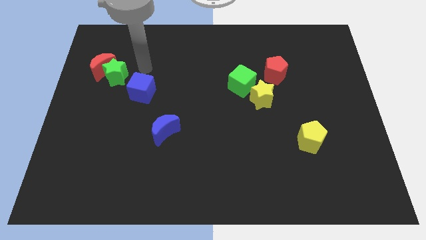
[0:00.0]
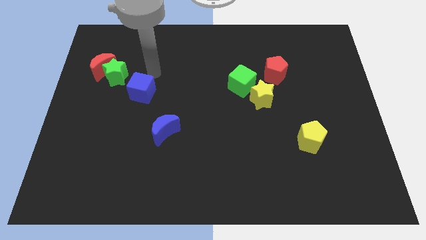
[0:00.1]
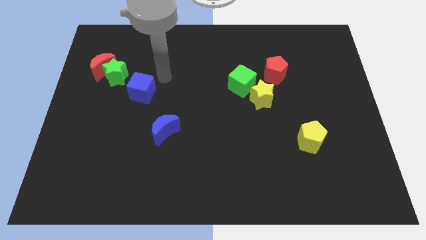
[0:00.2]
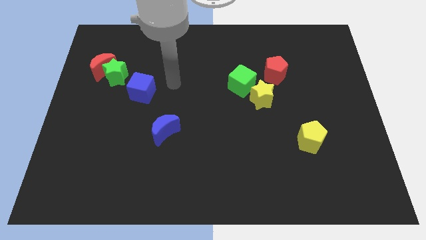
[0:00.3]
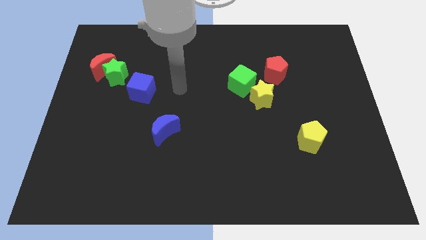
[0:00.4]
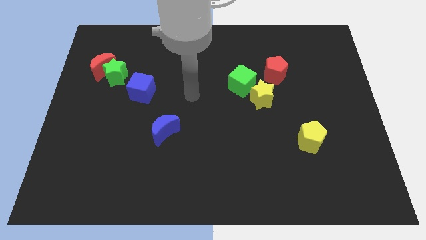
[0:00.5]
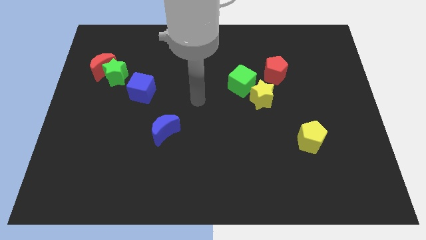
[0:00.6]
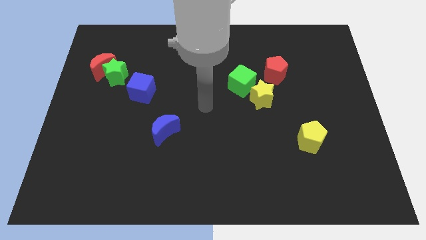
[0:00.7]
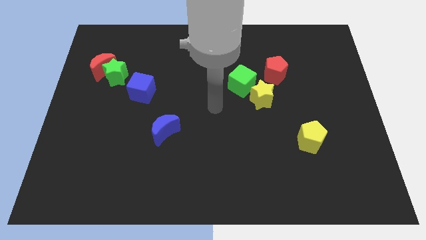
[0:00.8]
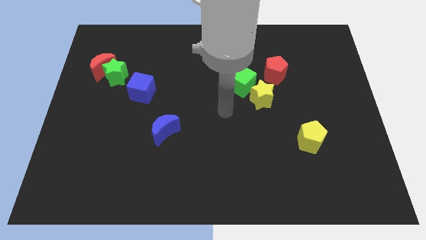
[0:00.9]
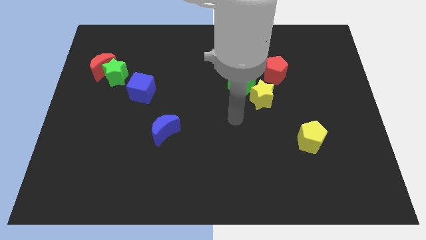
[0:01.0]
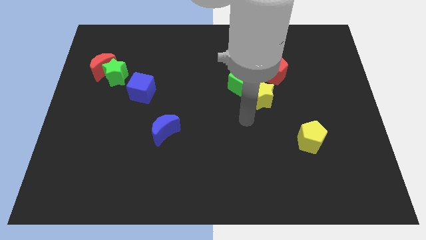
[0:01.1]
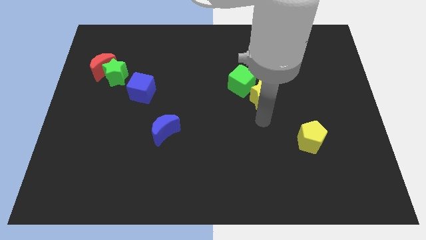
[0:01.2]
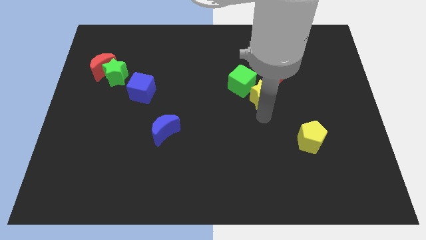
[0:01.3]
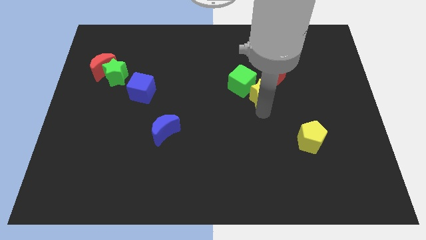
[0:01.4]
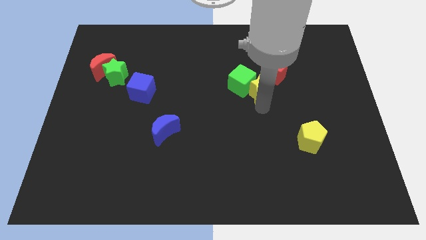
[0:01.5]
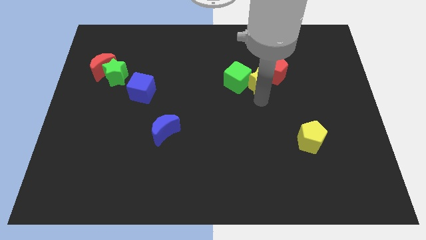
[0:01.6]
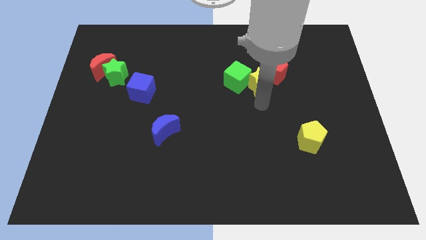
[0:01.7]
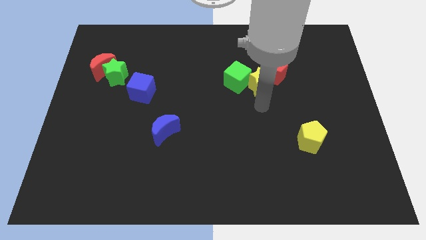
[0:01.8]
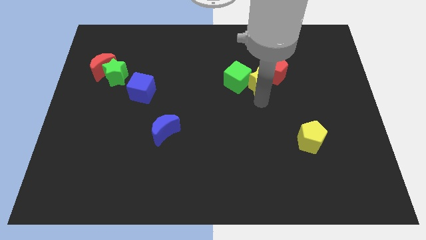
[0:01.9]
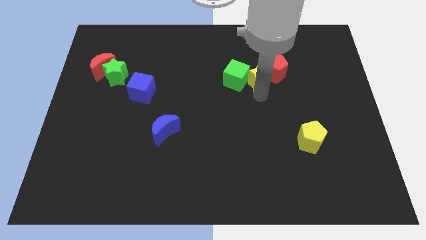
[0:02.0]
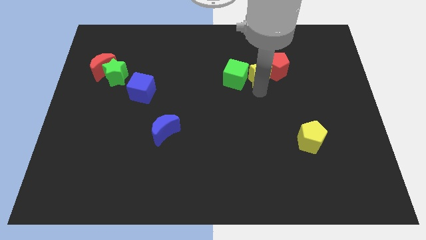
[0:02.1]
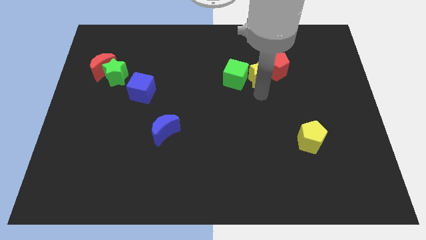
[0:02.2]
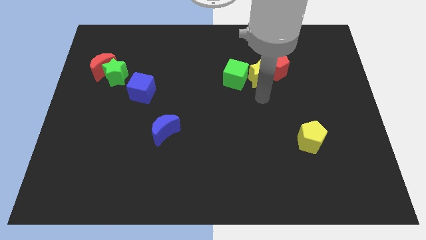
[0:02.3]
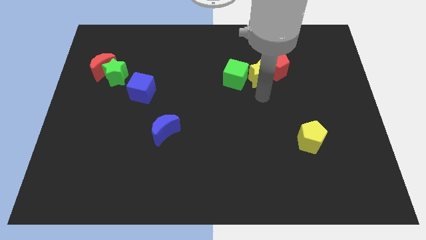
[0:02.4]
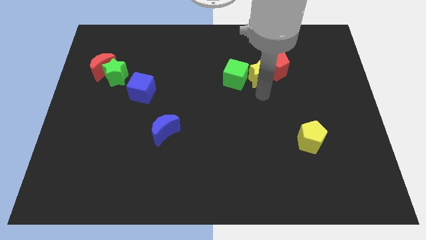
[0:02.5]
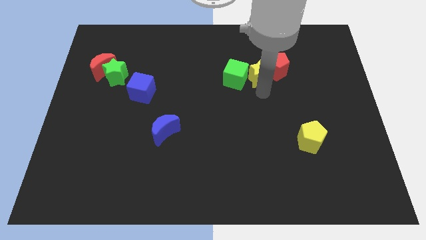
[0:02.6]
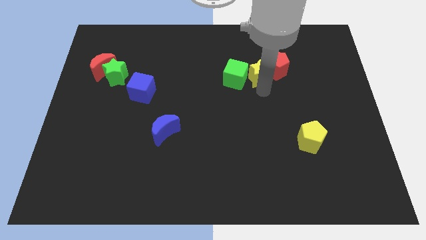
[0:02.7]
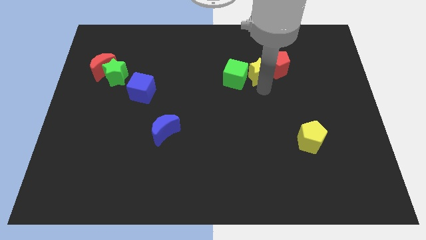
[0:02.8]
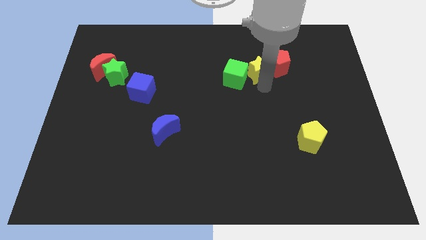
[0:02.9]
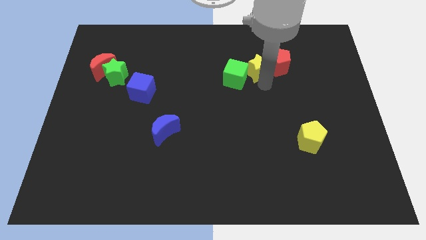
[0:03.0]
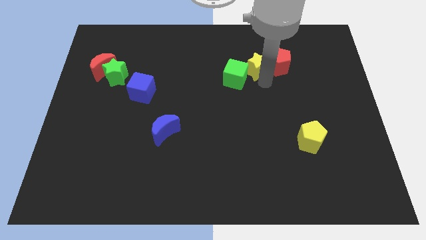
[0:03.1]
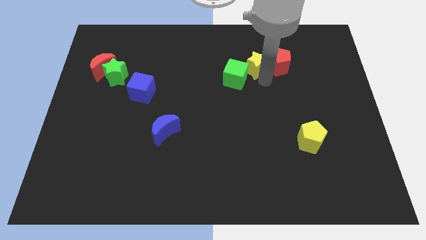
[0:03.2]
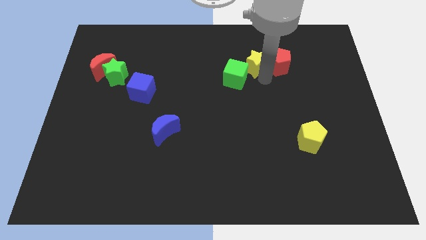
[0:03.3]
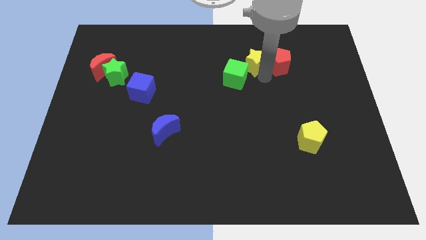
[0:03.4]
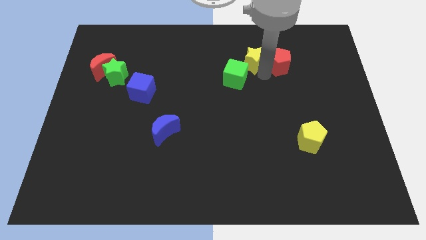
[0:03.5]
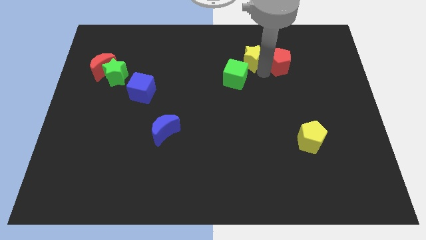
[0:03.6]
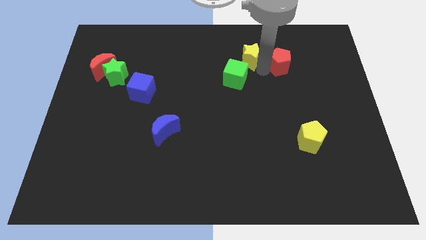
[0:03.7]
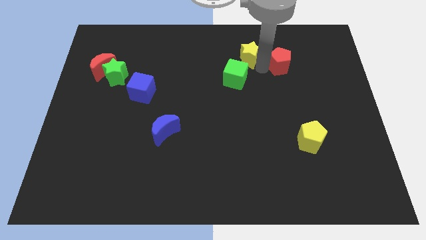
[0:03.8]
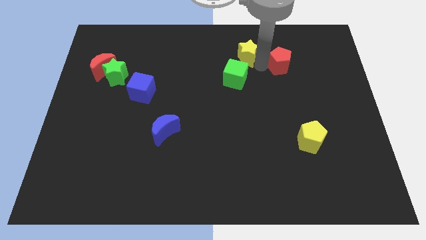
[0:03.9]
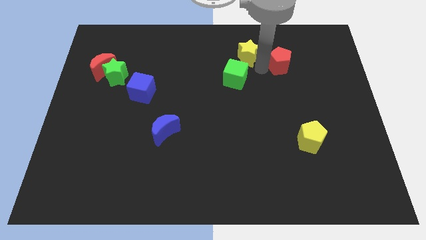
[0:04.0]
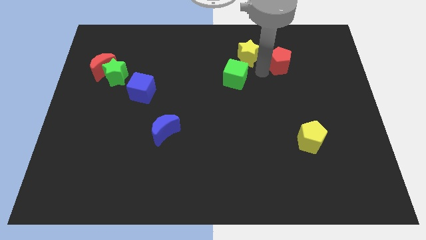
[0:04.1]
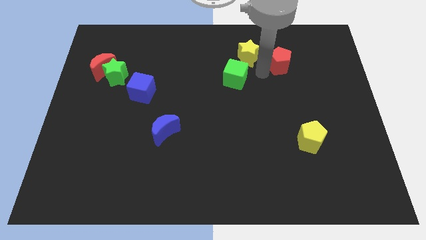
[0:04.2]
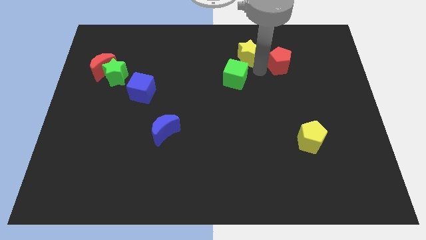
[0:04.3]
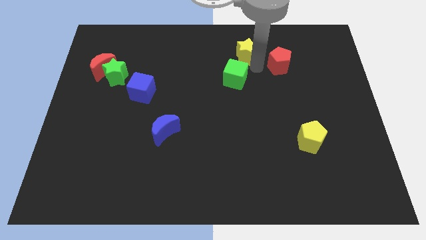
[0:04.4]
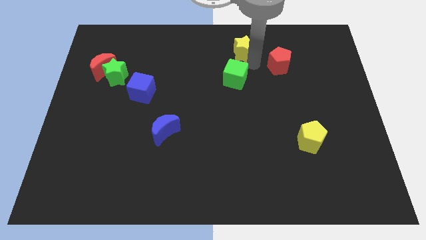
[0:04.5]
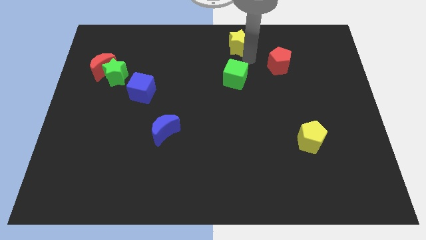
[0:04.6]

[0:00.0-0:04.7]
move the yellow star to the top side

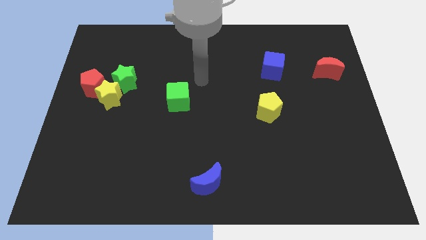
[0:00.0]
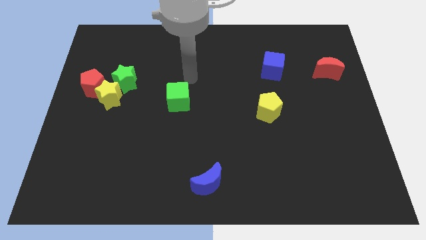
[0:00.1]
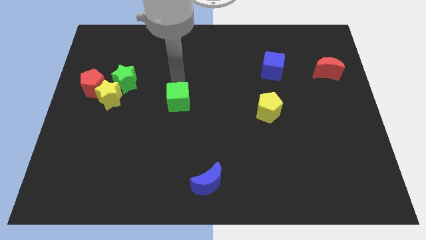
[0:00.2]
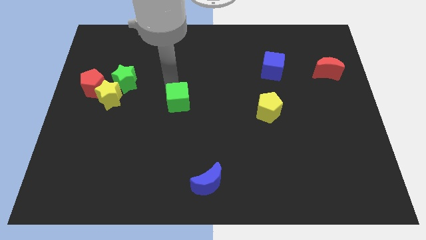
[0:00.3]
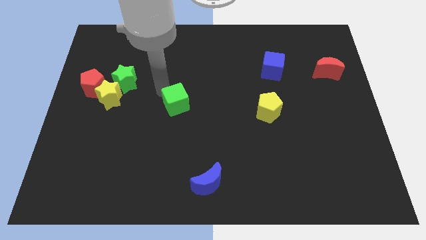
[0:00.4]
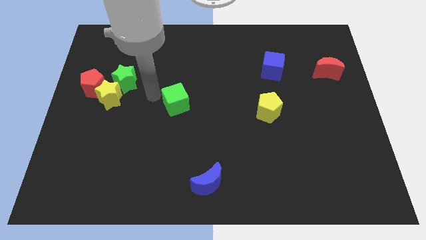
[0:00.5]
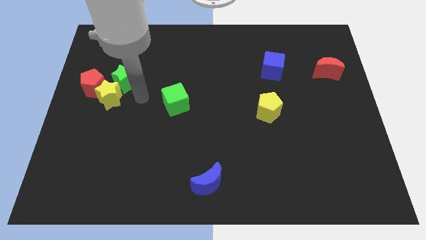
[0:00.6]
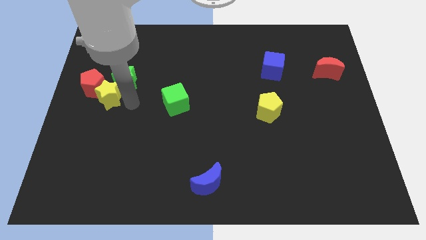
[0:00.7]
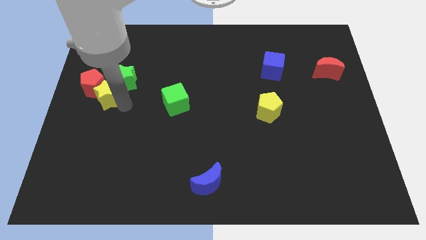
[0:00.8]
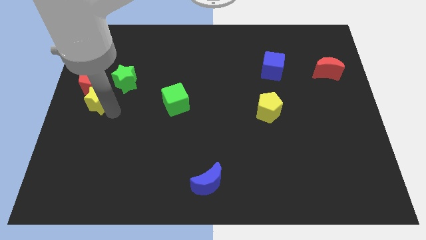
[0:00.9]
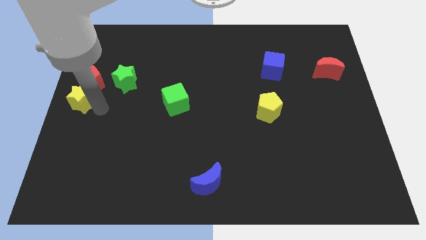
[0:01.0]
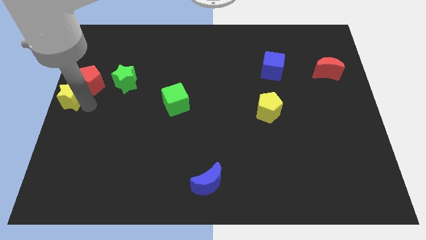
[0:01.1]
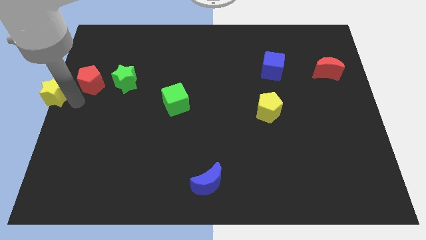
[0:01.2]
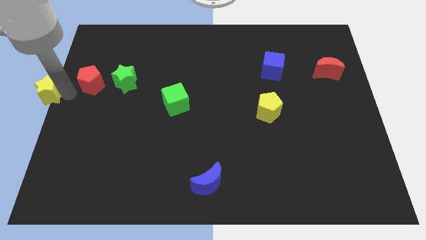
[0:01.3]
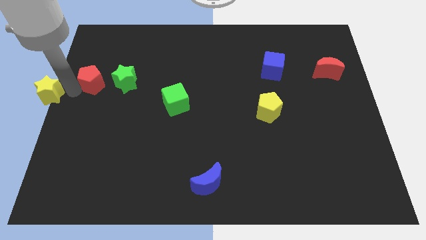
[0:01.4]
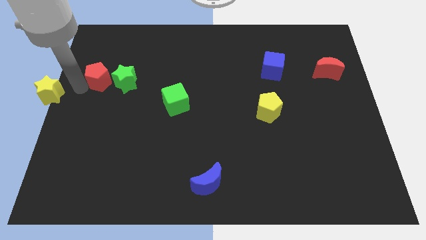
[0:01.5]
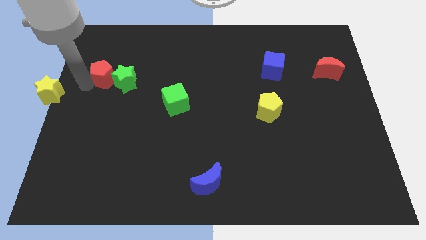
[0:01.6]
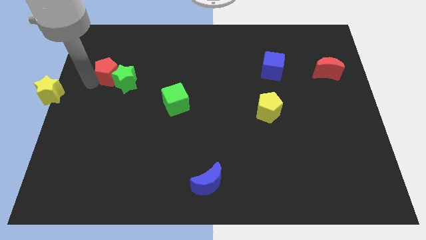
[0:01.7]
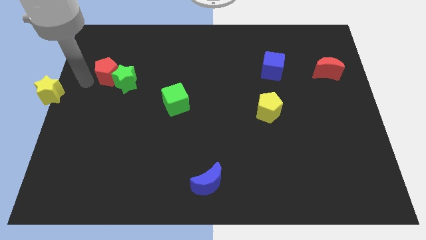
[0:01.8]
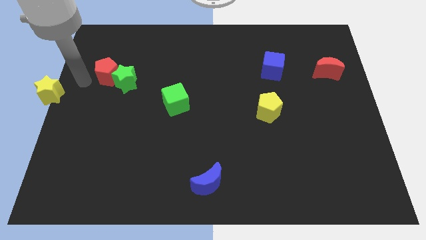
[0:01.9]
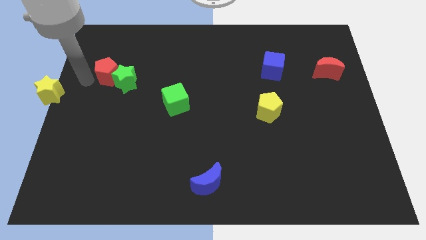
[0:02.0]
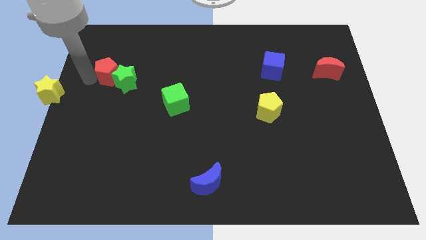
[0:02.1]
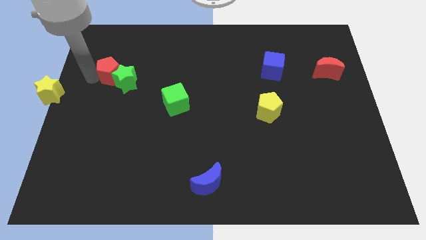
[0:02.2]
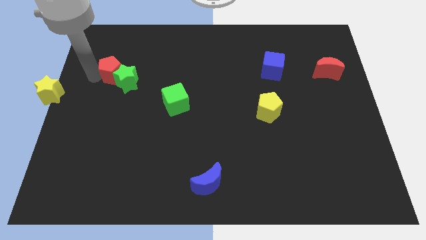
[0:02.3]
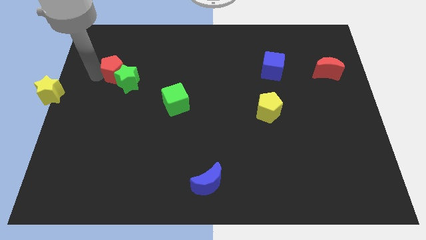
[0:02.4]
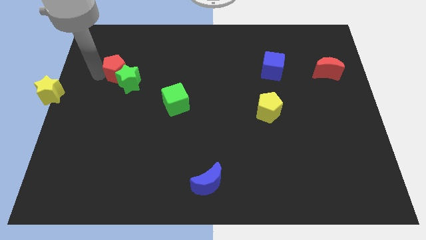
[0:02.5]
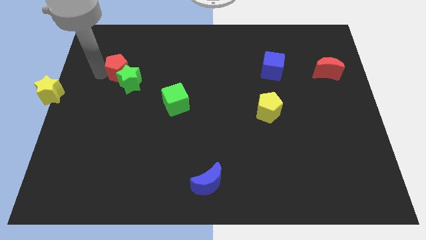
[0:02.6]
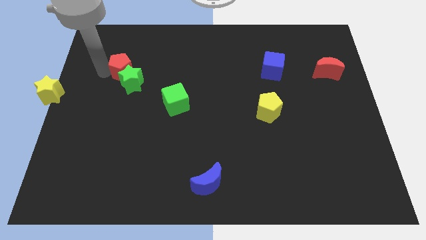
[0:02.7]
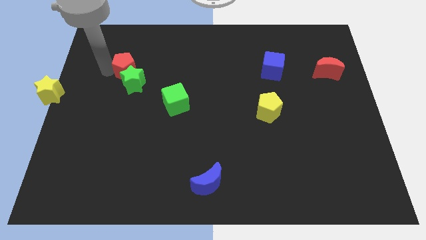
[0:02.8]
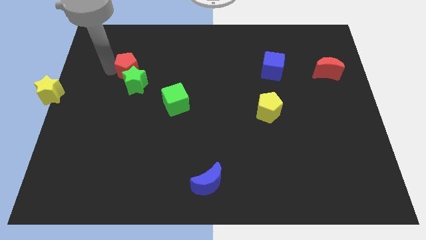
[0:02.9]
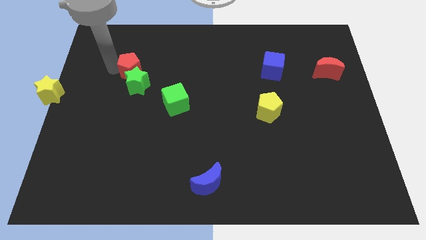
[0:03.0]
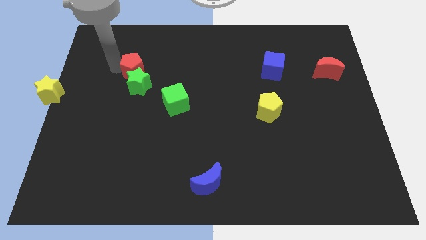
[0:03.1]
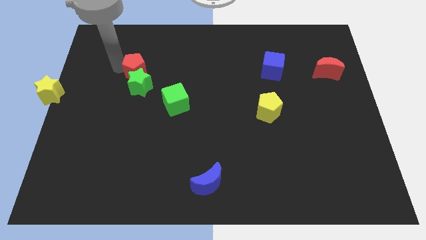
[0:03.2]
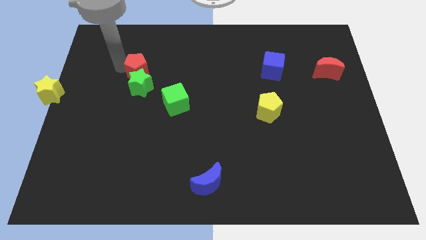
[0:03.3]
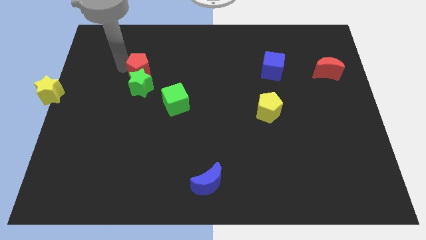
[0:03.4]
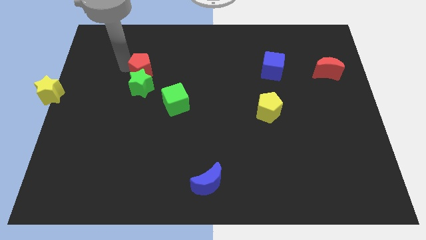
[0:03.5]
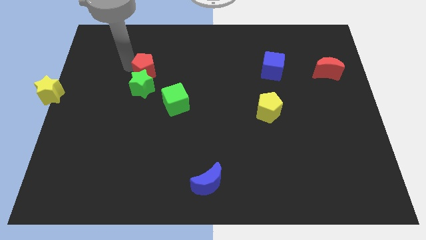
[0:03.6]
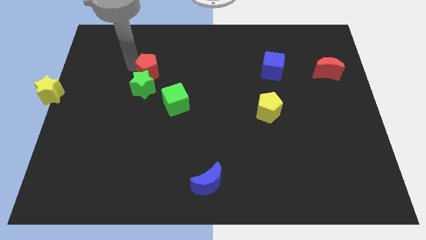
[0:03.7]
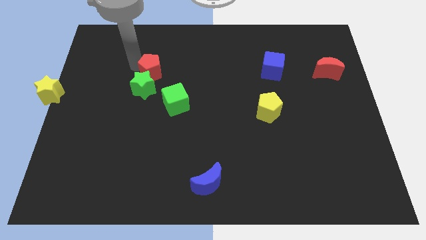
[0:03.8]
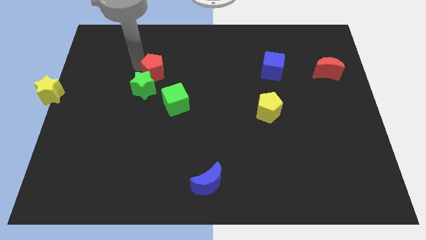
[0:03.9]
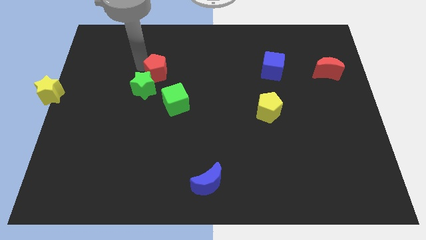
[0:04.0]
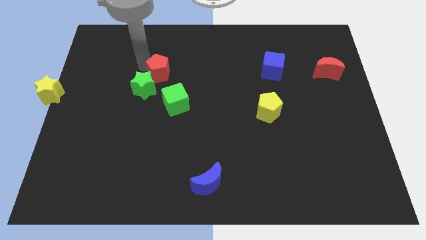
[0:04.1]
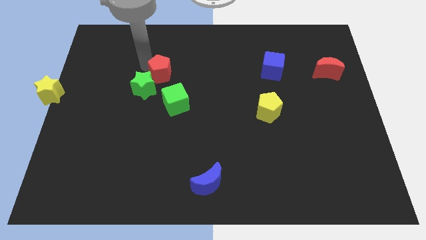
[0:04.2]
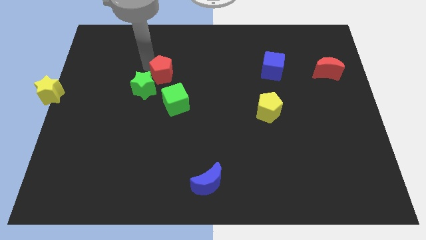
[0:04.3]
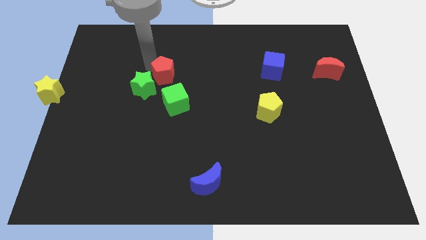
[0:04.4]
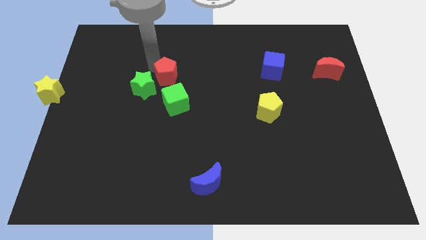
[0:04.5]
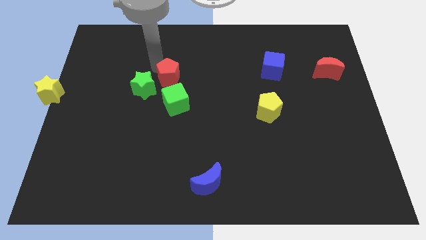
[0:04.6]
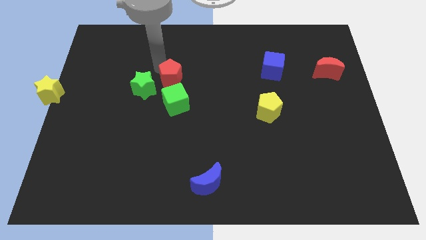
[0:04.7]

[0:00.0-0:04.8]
move the red pentagon to the center
